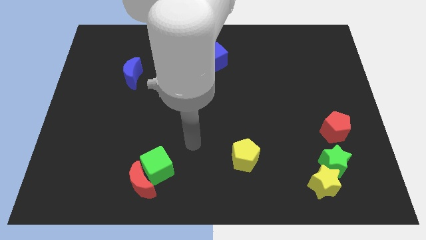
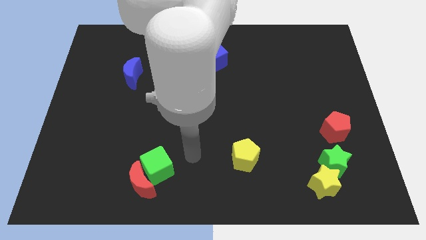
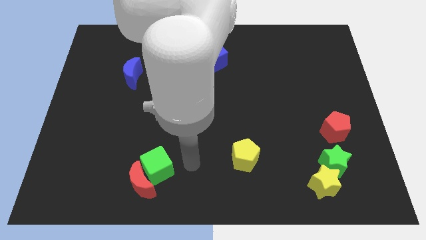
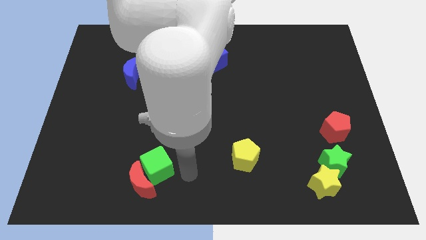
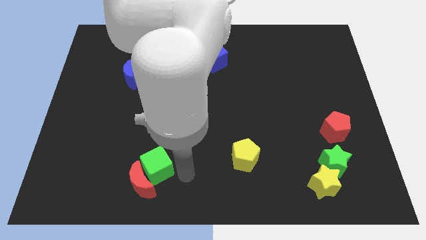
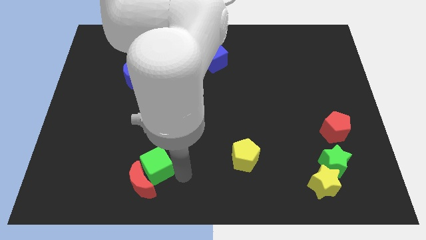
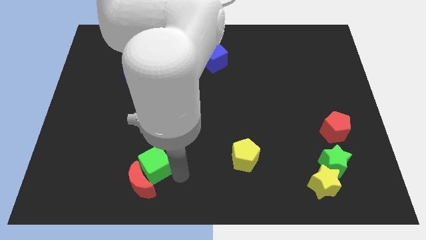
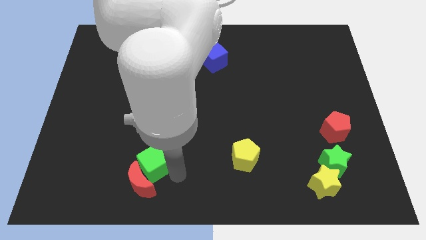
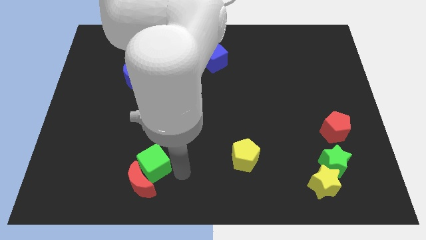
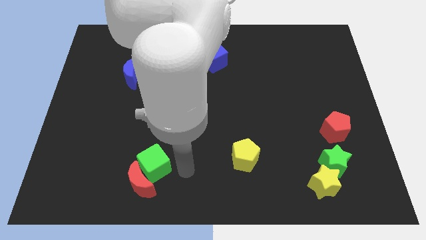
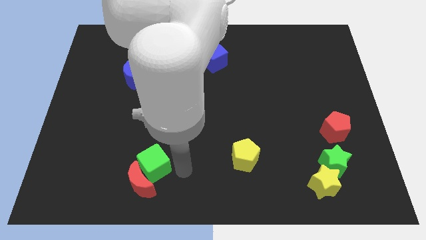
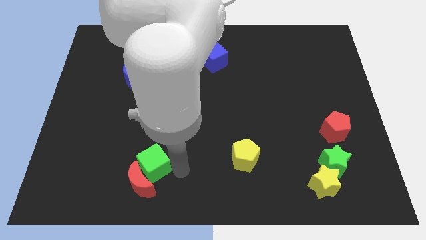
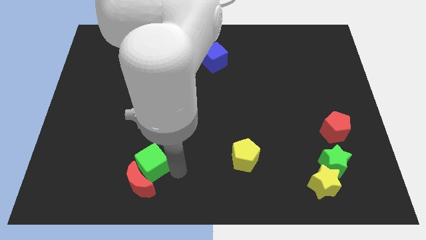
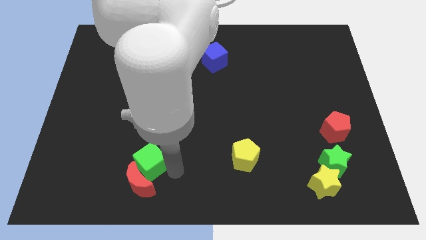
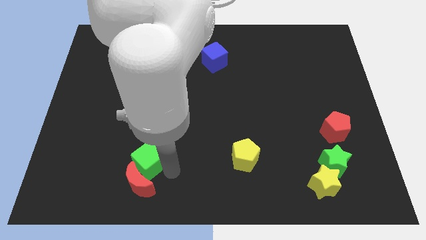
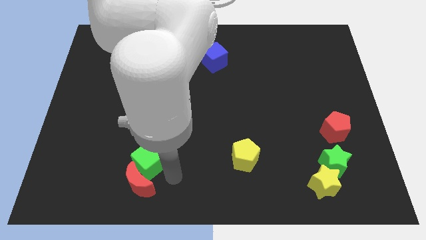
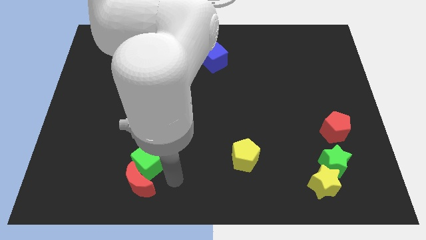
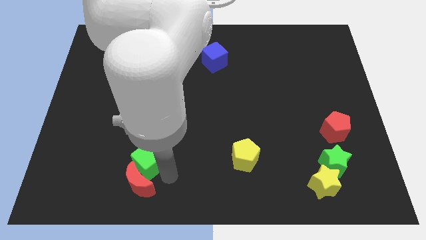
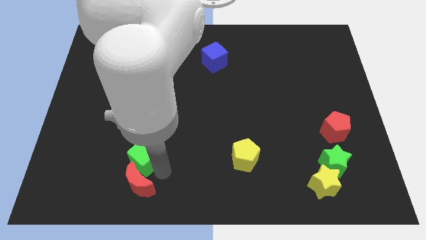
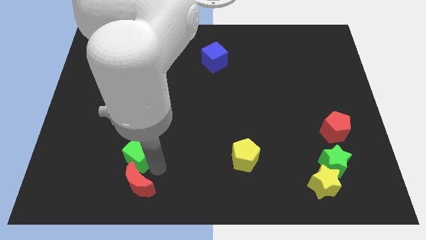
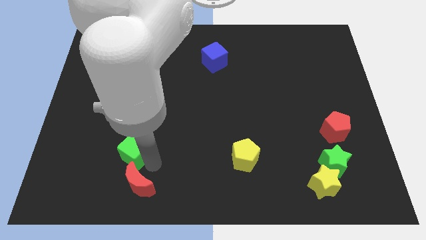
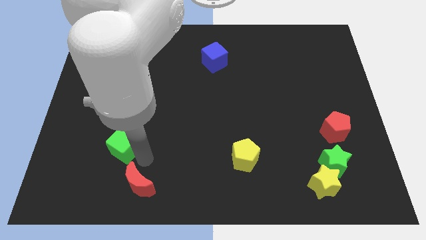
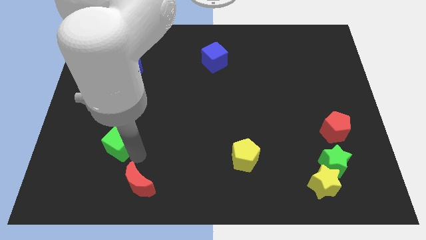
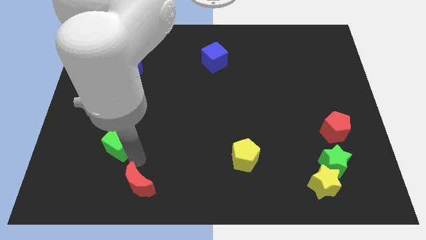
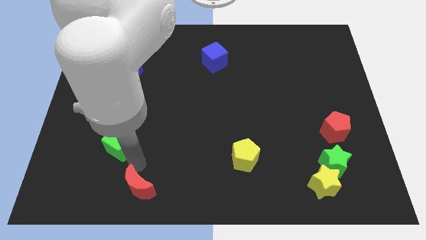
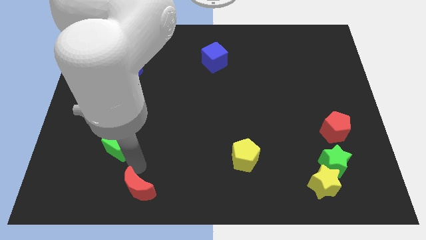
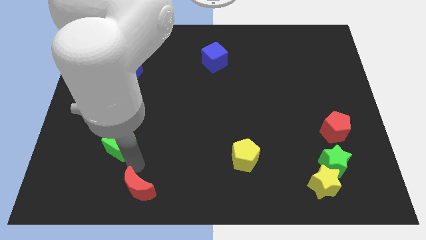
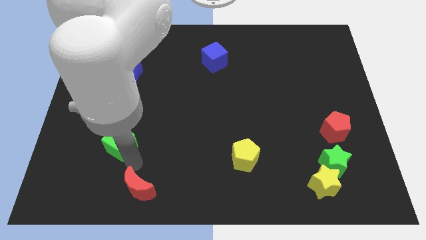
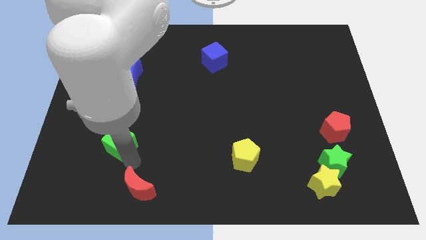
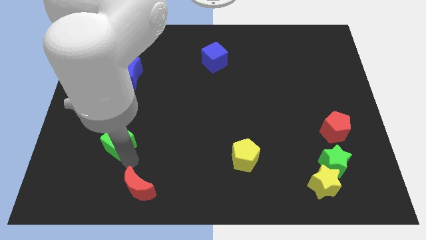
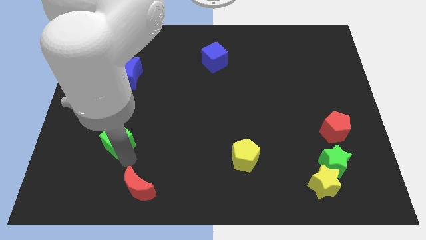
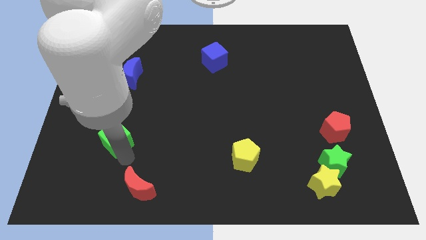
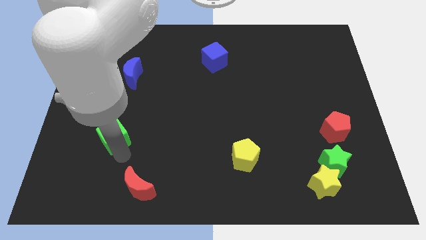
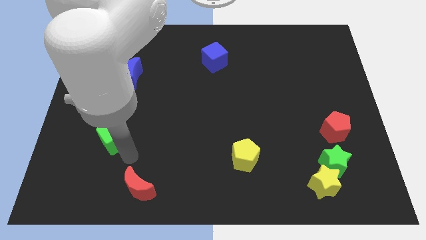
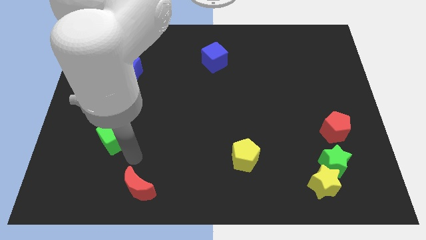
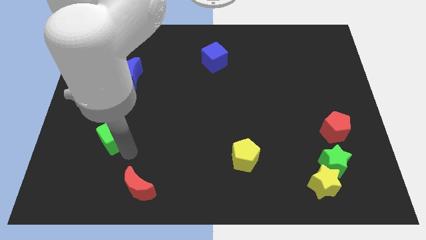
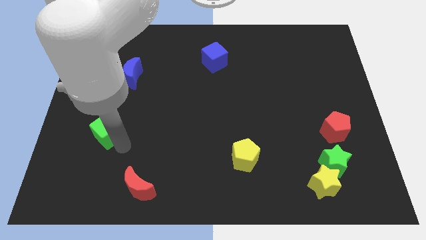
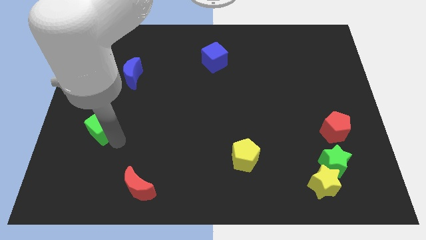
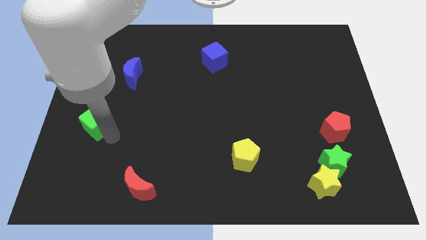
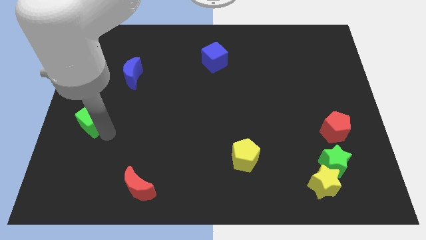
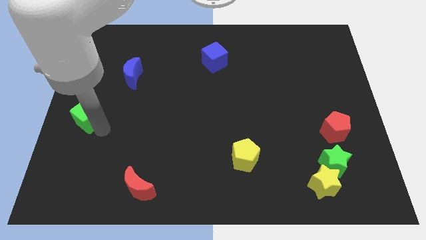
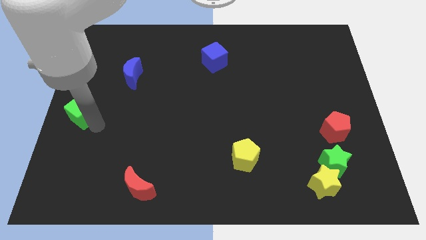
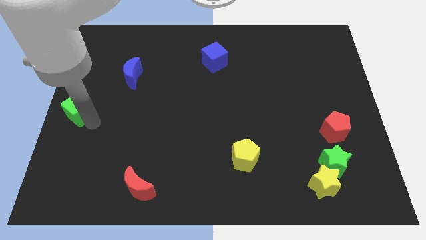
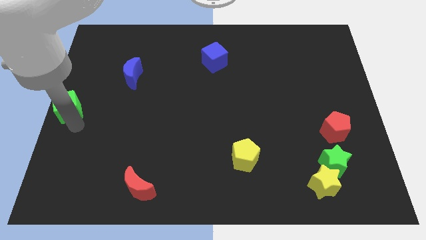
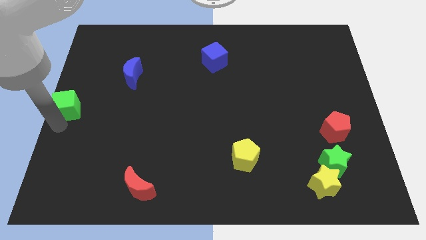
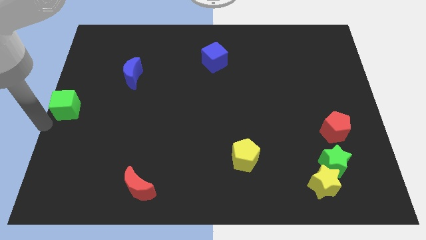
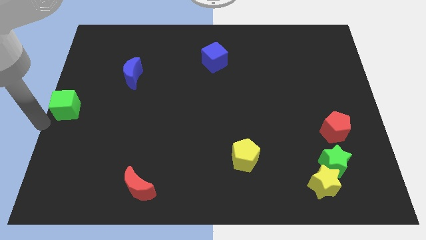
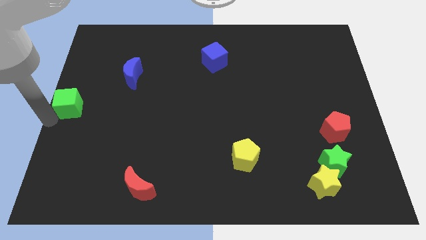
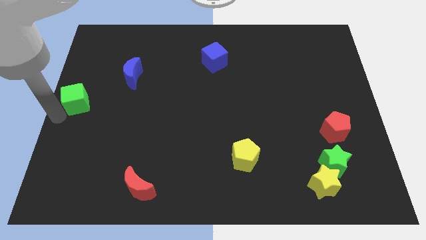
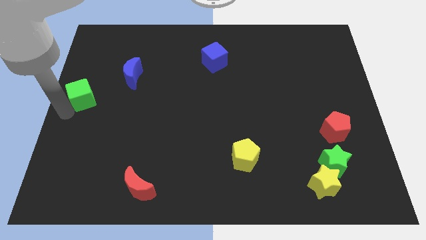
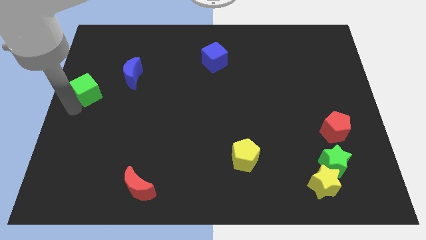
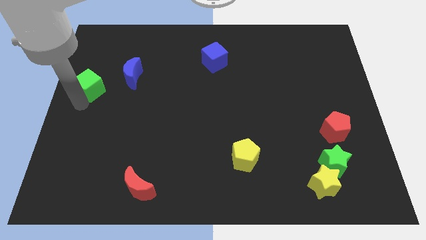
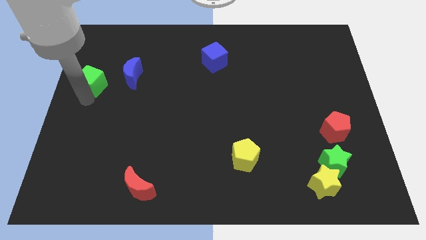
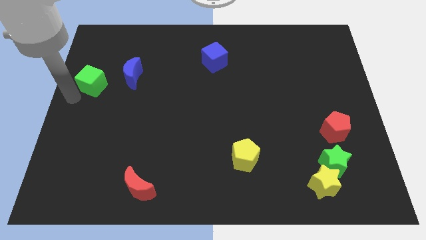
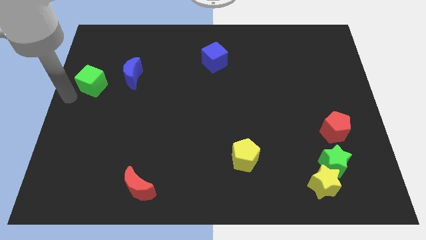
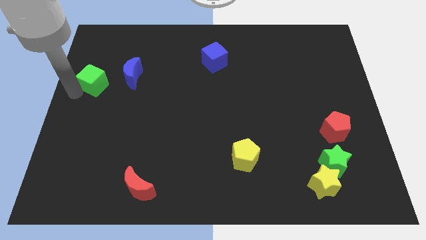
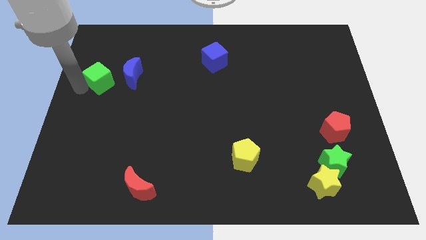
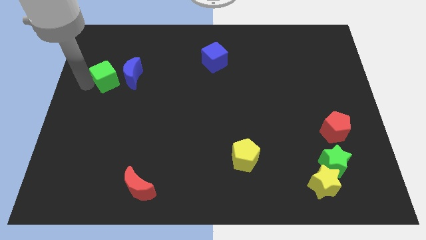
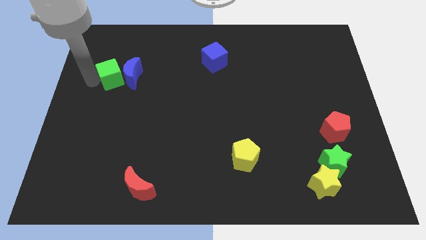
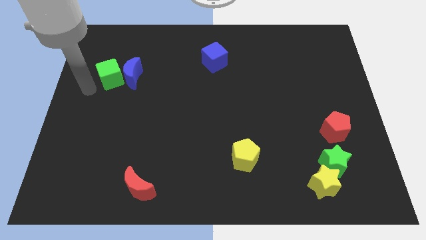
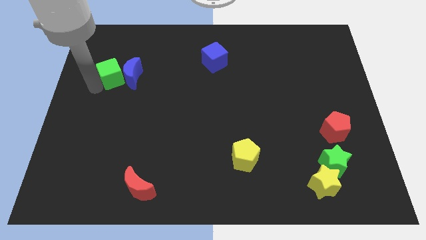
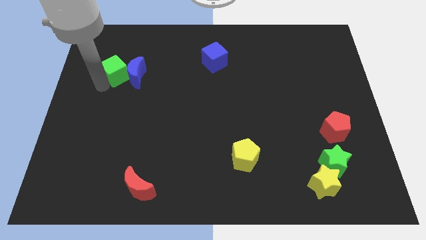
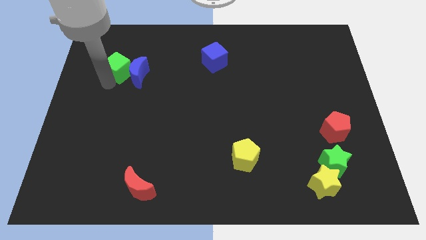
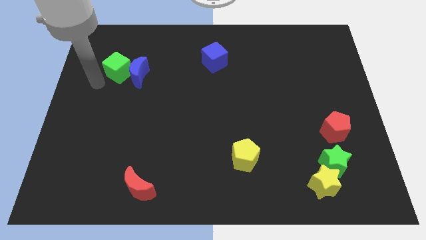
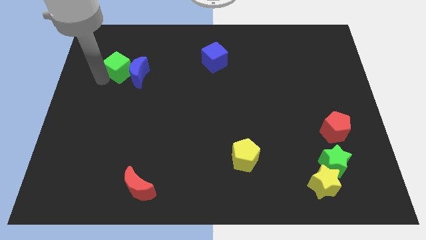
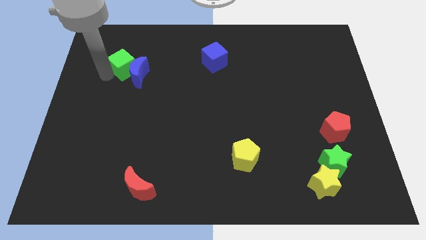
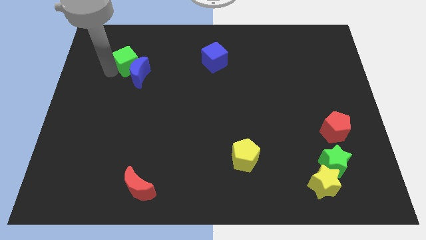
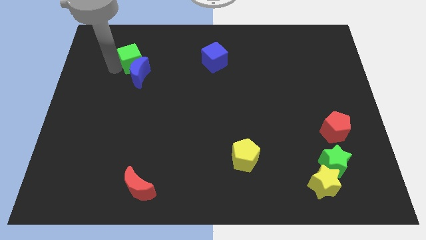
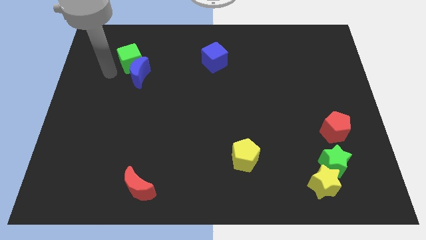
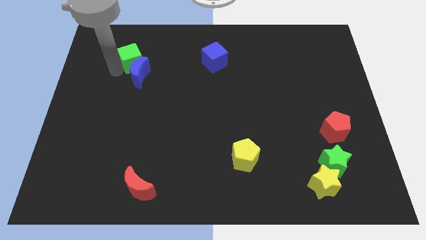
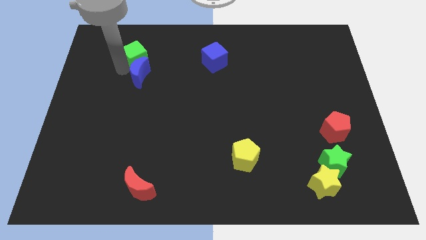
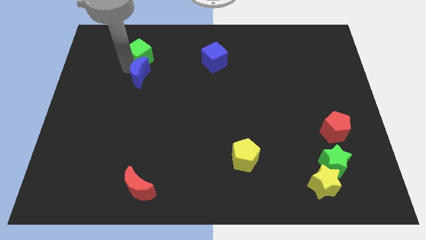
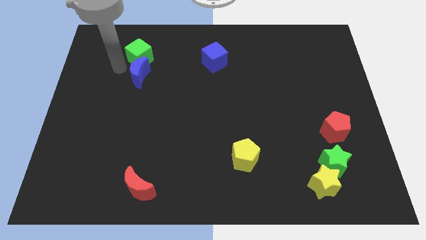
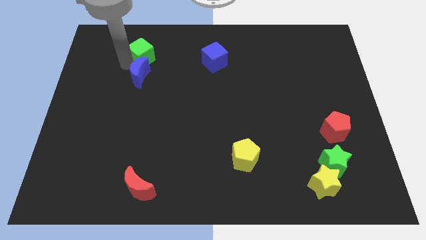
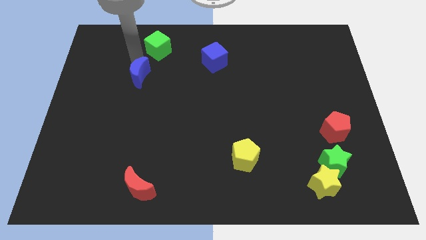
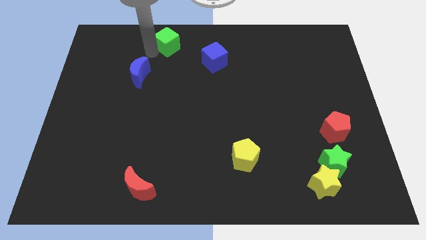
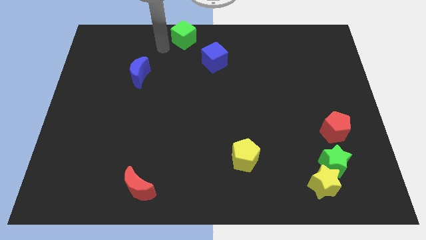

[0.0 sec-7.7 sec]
push the green cube to the top

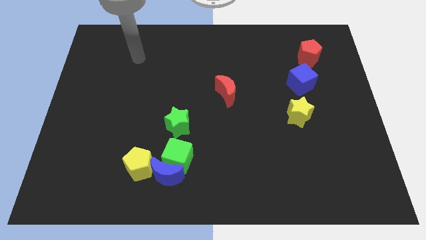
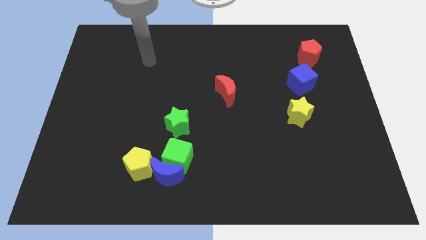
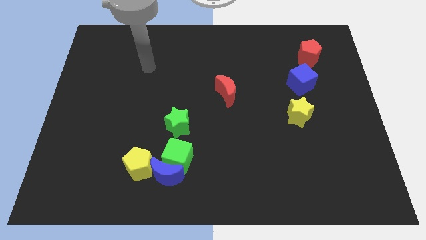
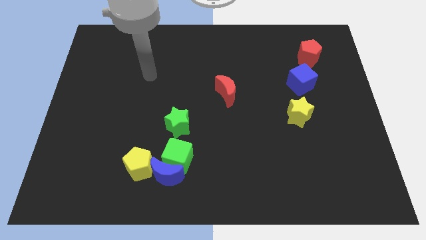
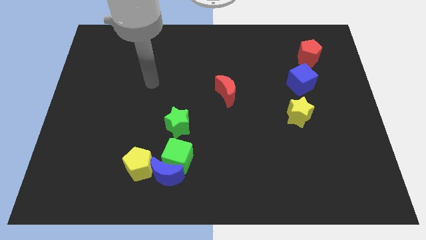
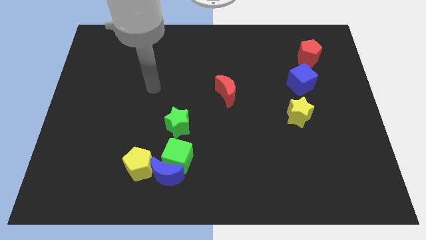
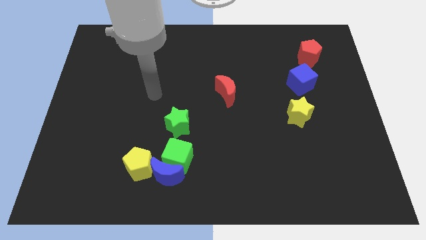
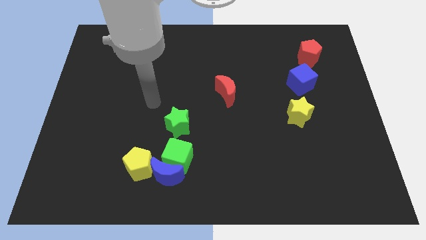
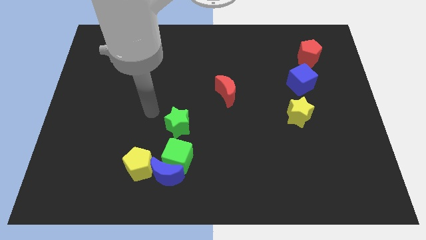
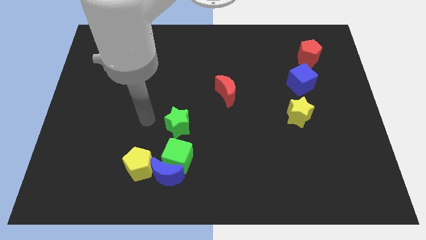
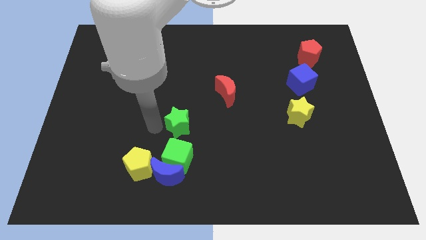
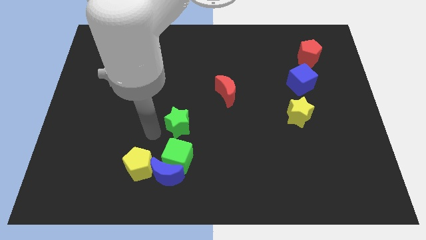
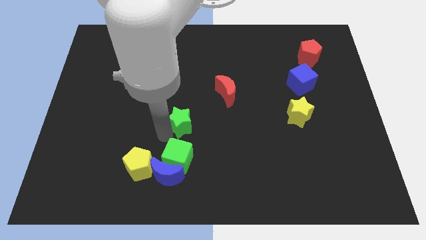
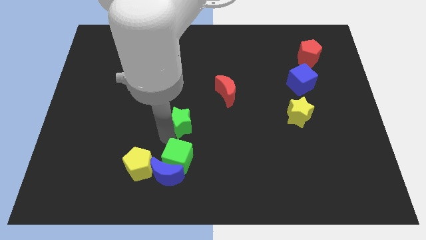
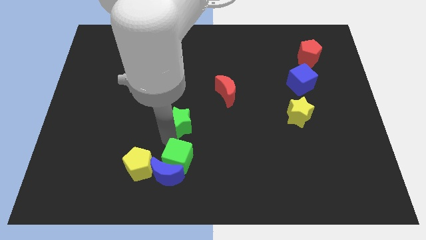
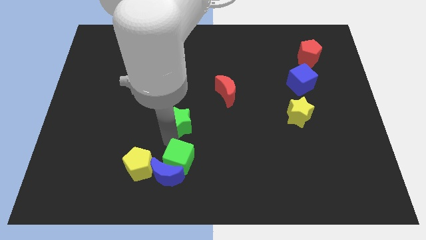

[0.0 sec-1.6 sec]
put the green cube to the bottom
